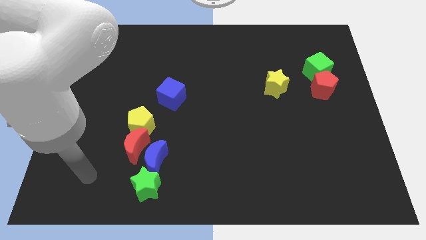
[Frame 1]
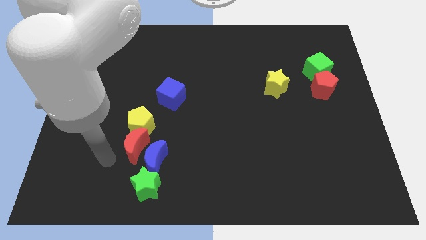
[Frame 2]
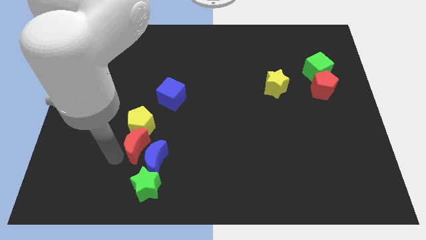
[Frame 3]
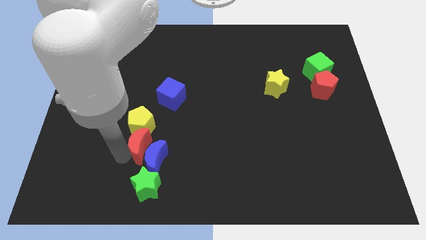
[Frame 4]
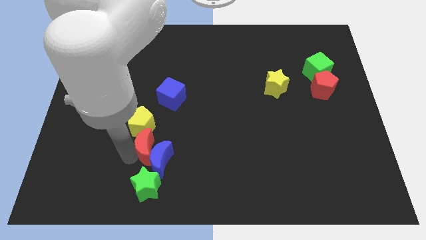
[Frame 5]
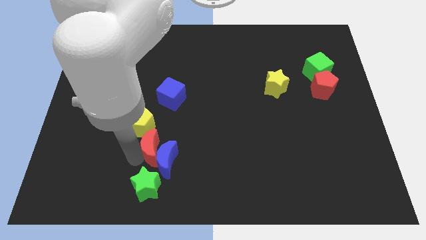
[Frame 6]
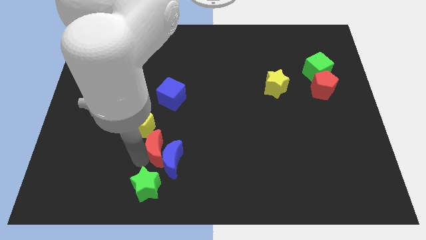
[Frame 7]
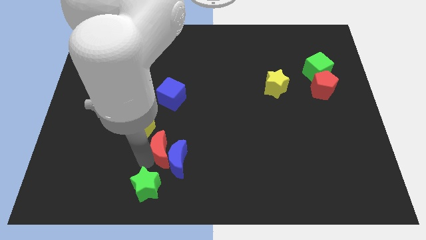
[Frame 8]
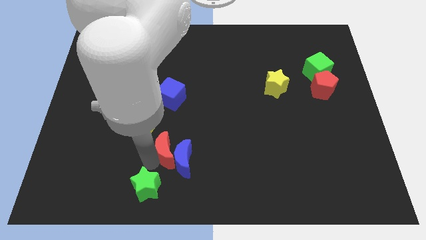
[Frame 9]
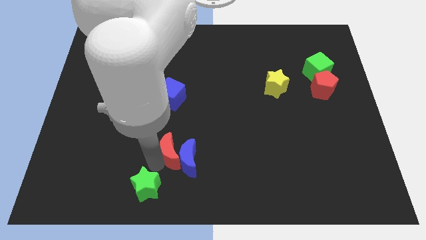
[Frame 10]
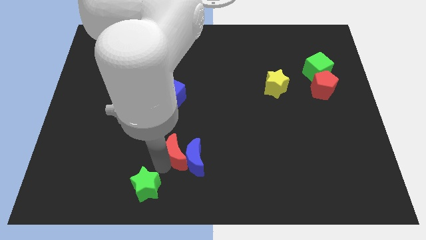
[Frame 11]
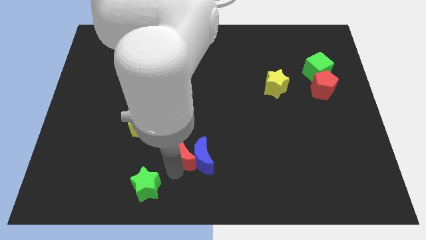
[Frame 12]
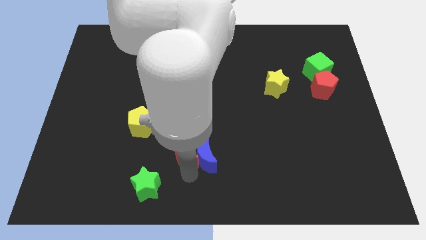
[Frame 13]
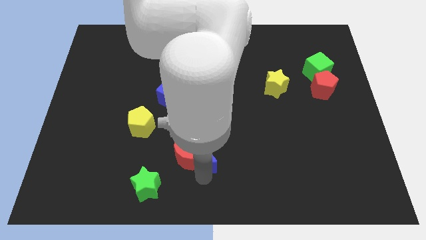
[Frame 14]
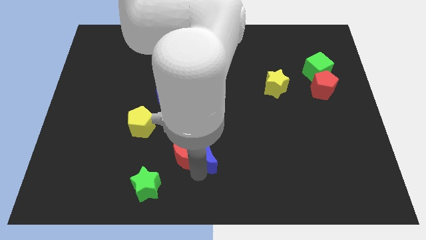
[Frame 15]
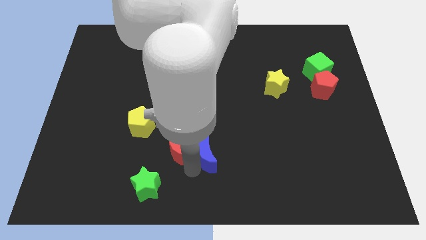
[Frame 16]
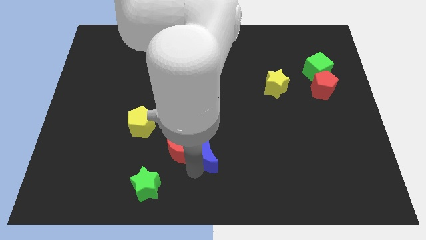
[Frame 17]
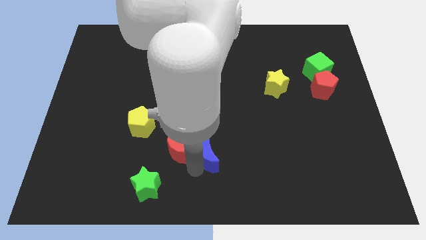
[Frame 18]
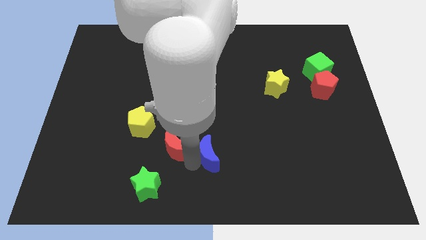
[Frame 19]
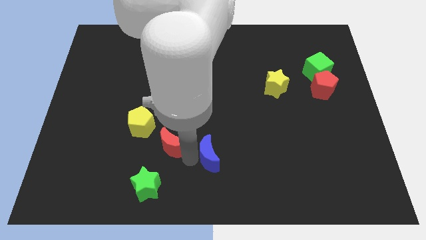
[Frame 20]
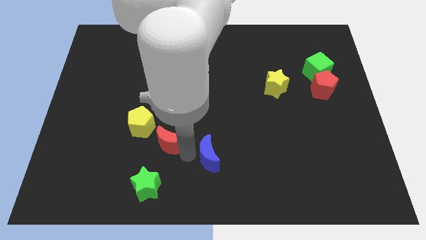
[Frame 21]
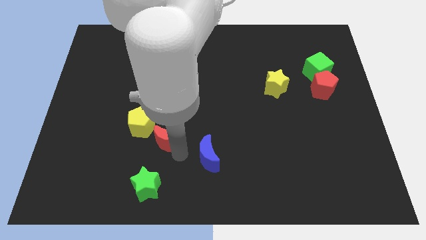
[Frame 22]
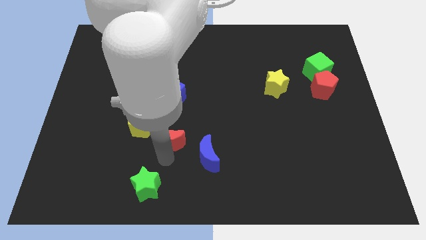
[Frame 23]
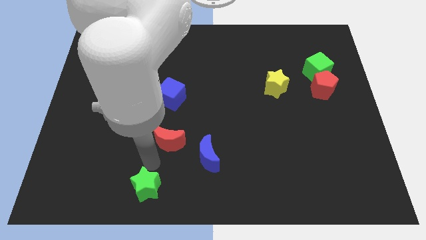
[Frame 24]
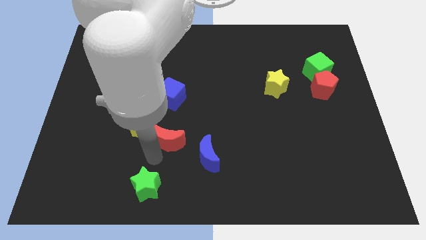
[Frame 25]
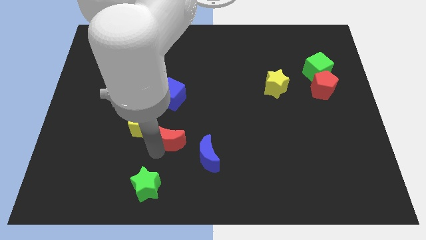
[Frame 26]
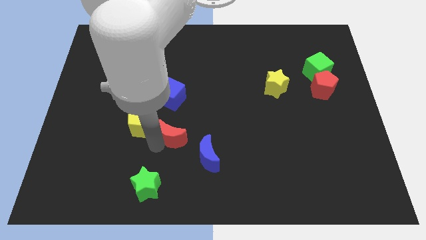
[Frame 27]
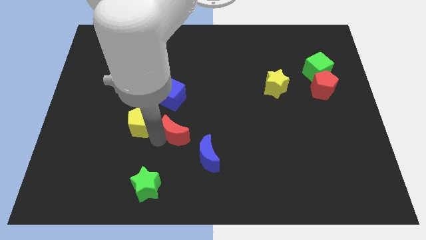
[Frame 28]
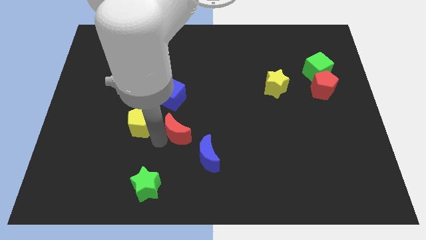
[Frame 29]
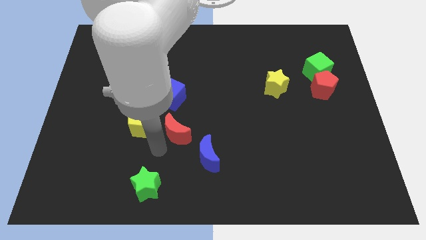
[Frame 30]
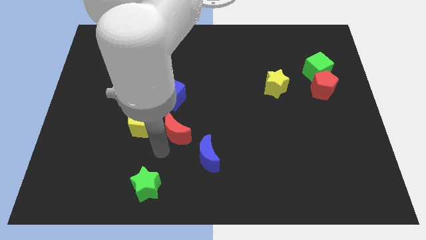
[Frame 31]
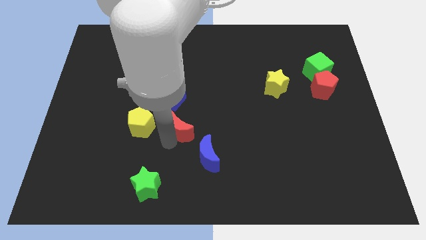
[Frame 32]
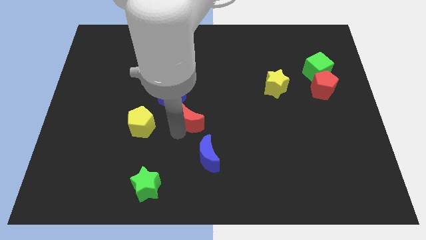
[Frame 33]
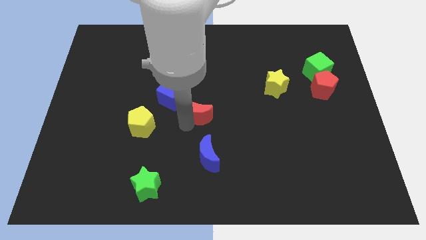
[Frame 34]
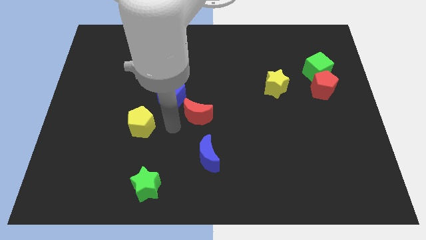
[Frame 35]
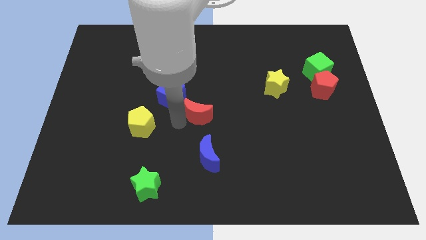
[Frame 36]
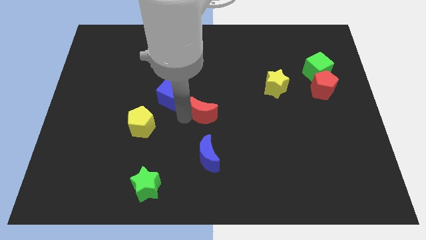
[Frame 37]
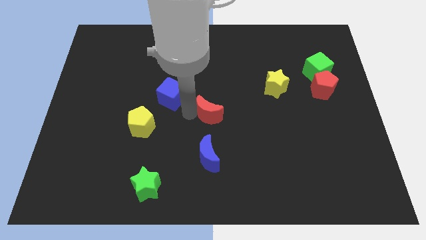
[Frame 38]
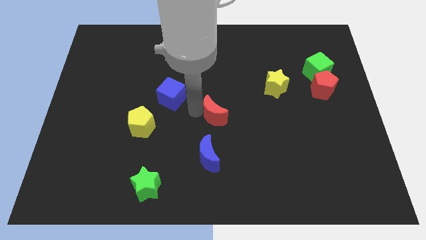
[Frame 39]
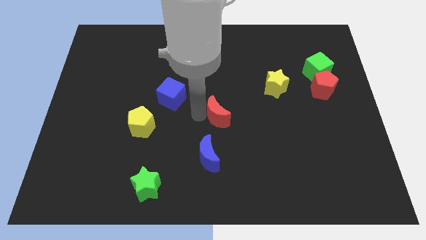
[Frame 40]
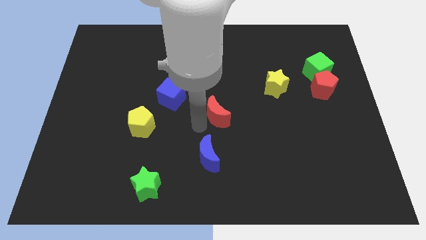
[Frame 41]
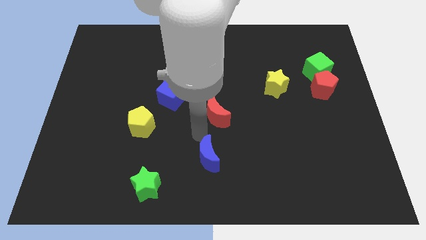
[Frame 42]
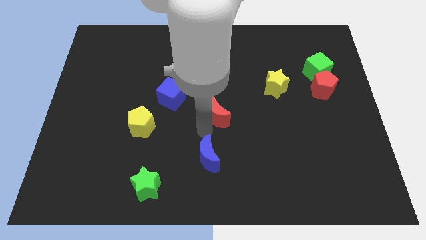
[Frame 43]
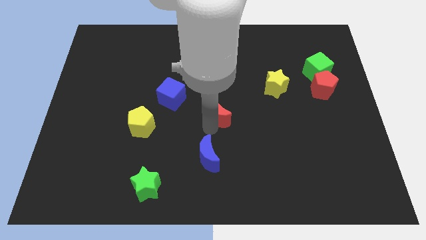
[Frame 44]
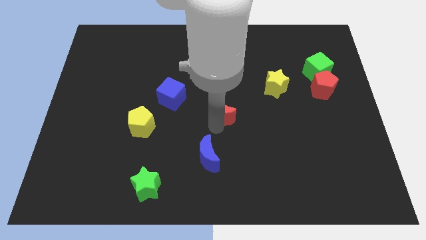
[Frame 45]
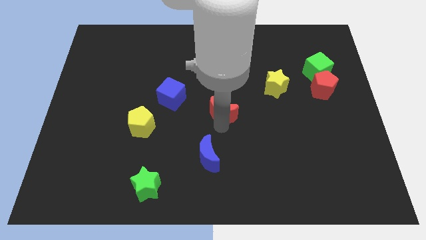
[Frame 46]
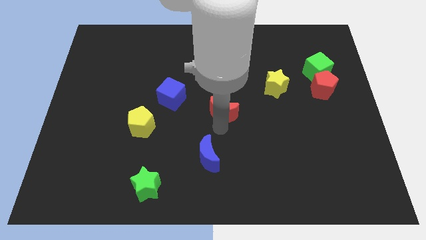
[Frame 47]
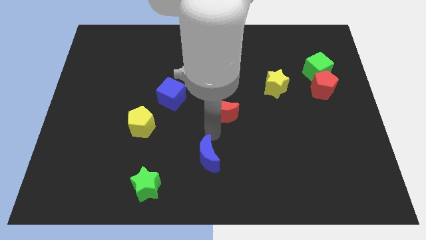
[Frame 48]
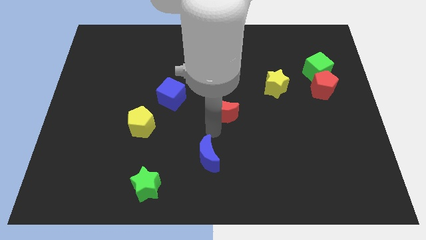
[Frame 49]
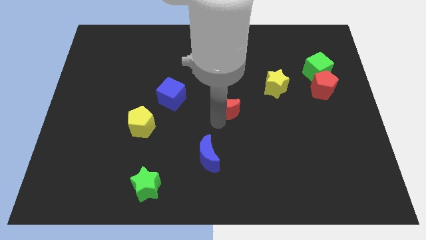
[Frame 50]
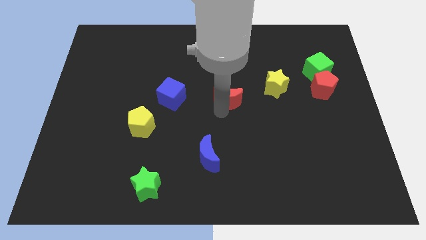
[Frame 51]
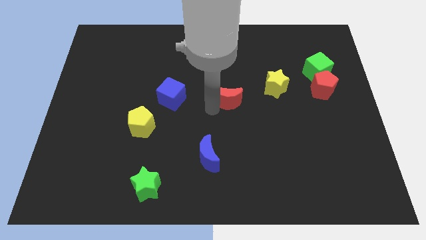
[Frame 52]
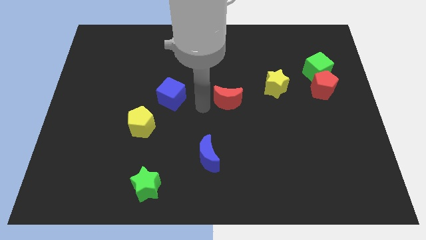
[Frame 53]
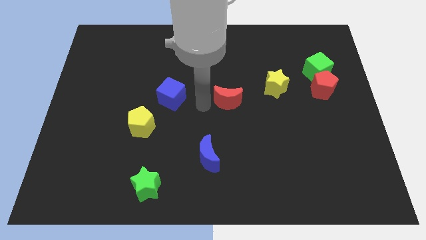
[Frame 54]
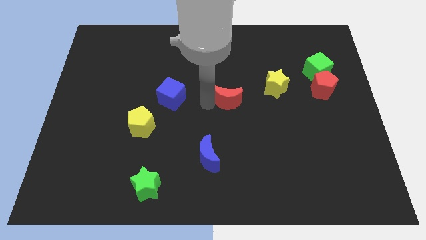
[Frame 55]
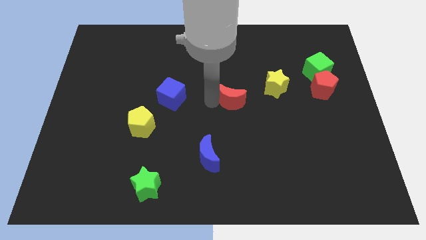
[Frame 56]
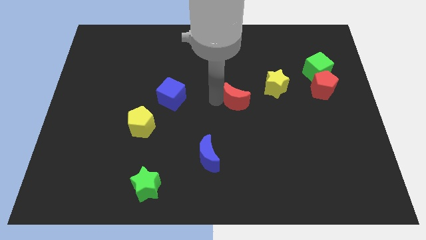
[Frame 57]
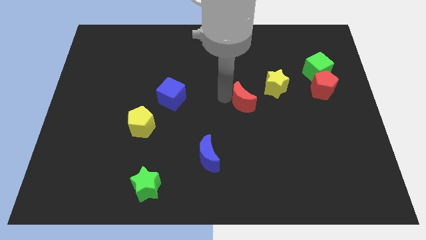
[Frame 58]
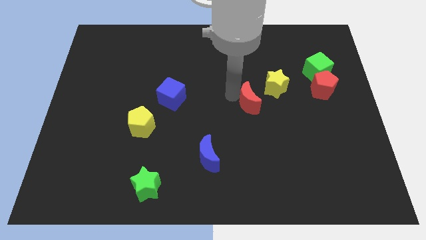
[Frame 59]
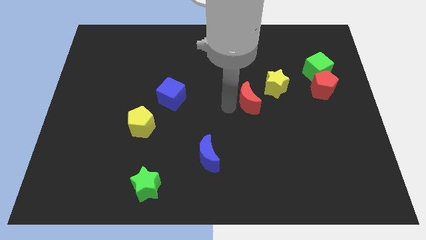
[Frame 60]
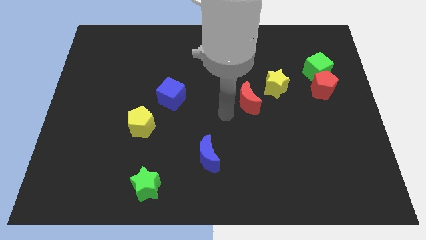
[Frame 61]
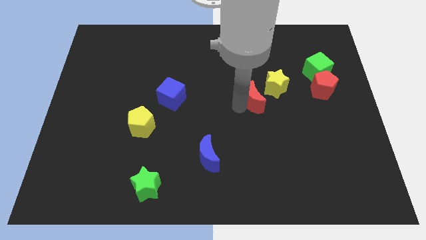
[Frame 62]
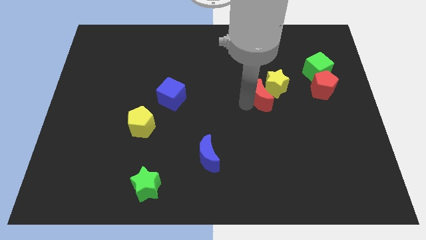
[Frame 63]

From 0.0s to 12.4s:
move the red moon to the yellow star
